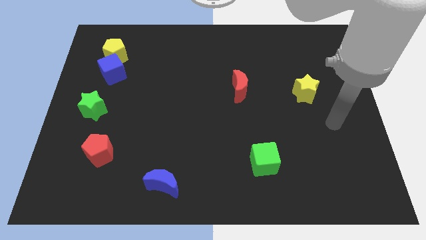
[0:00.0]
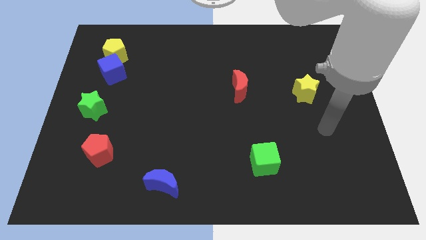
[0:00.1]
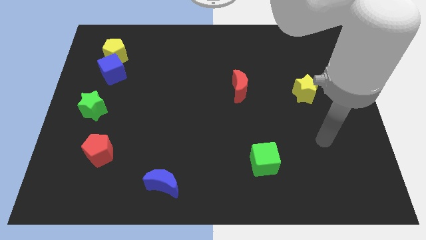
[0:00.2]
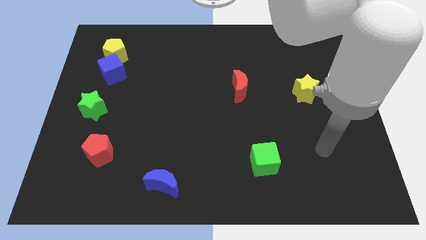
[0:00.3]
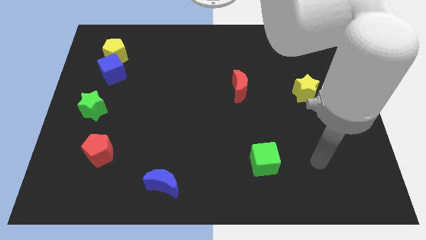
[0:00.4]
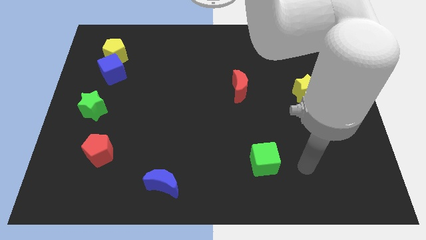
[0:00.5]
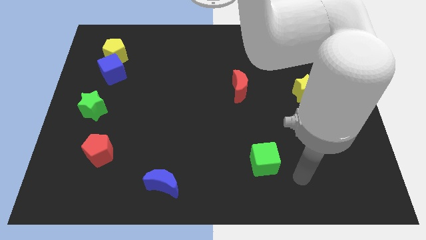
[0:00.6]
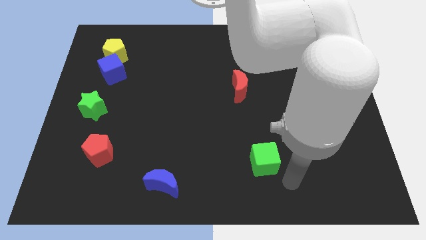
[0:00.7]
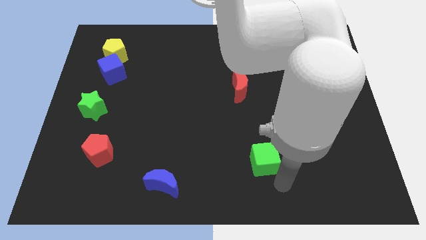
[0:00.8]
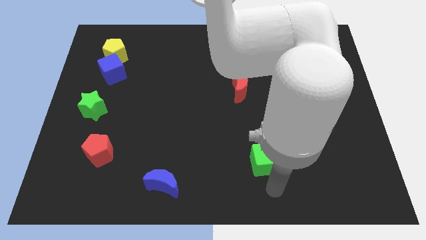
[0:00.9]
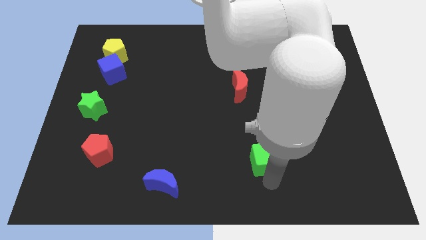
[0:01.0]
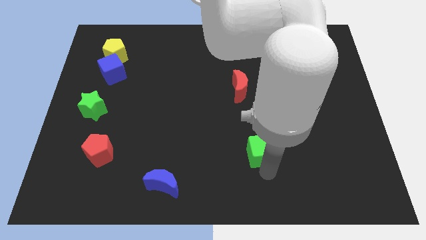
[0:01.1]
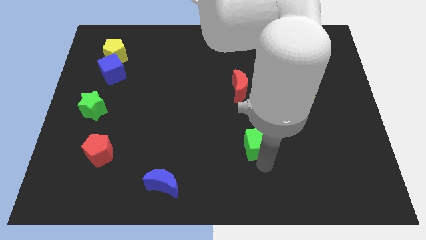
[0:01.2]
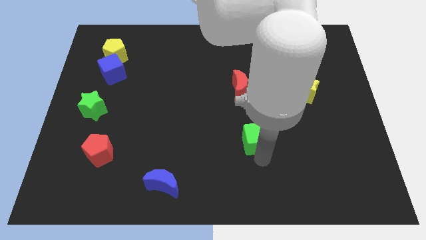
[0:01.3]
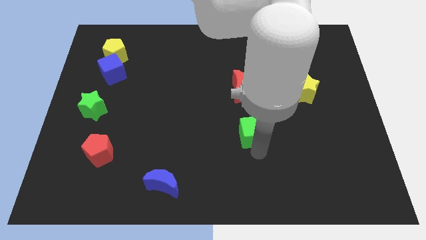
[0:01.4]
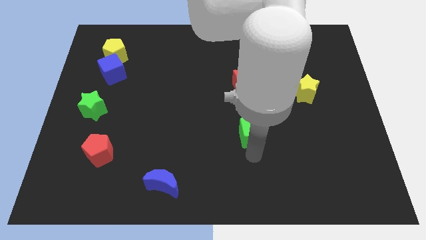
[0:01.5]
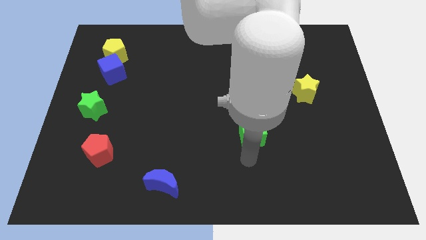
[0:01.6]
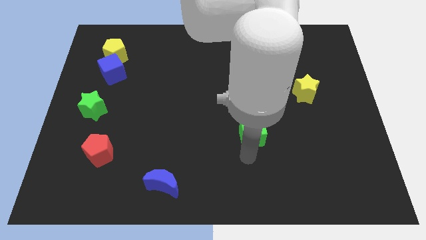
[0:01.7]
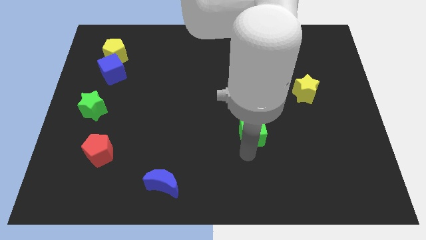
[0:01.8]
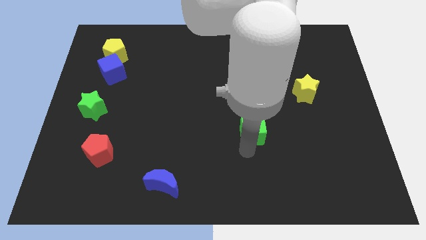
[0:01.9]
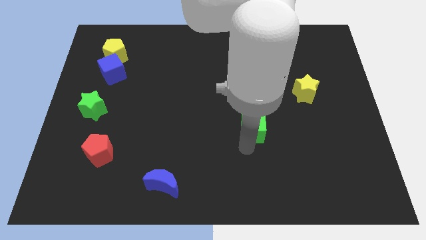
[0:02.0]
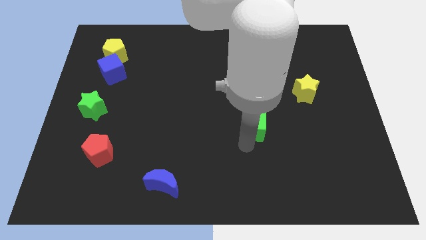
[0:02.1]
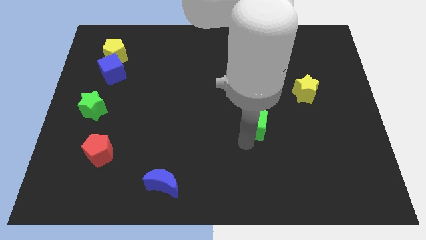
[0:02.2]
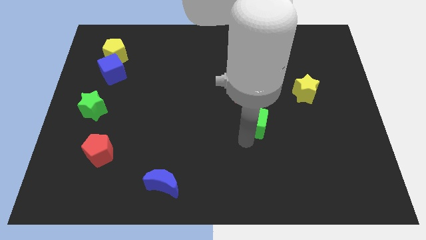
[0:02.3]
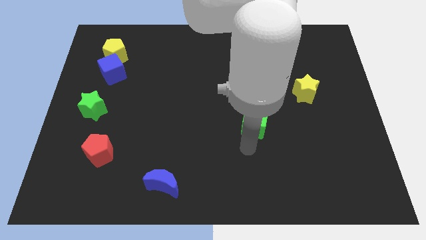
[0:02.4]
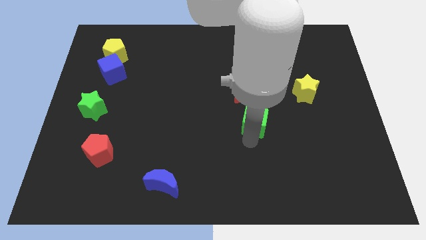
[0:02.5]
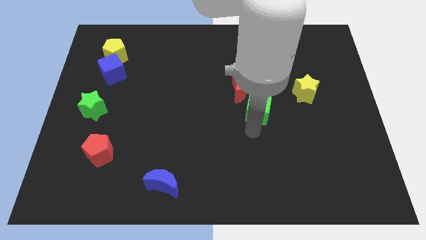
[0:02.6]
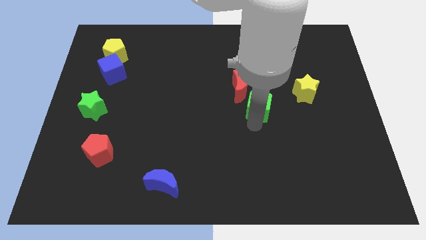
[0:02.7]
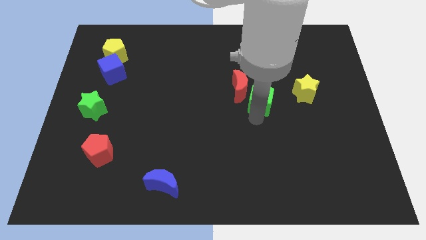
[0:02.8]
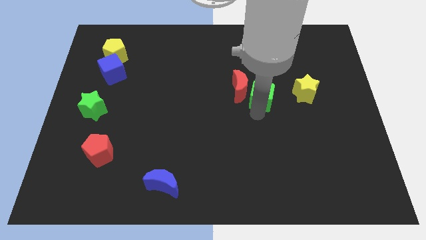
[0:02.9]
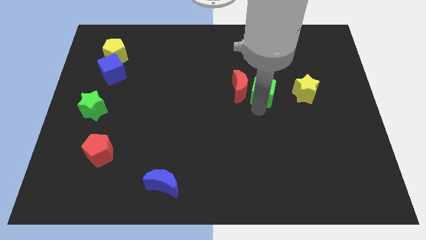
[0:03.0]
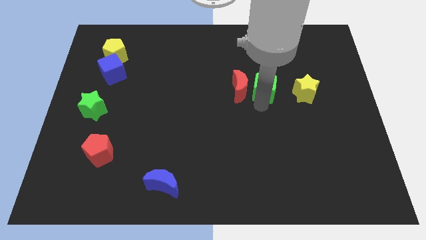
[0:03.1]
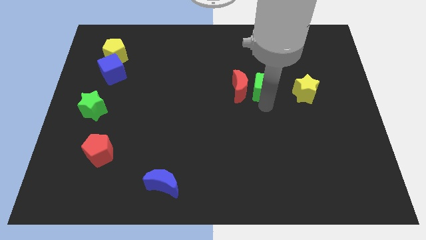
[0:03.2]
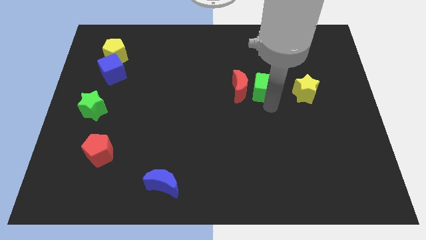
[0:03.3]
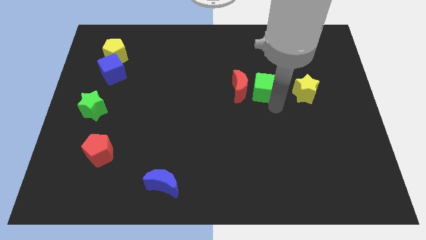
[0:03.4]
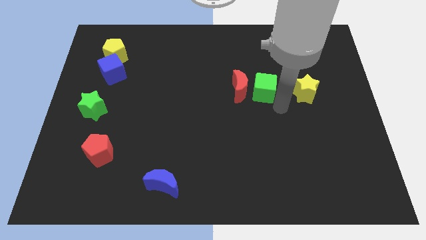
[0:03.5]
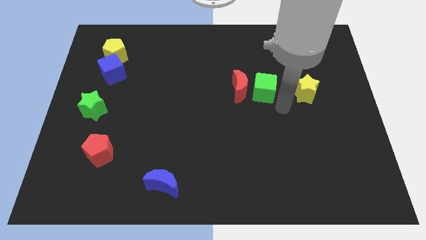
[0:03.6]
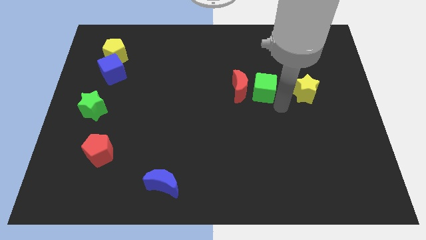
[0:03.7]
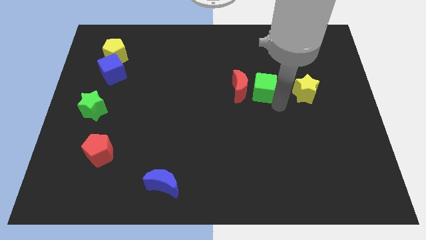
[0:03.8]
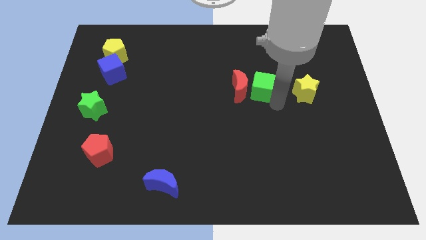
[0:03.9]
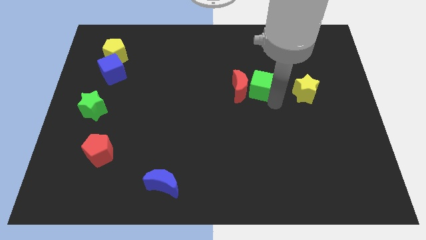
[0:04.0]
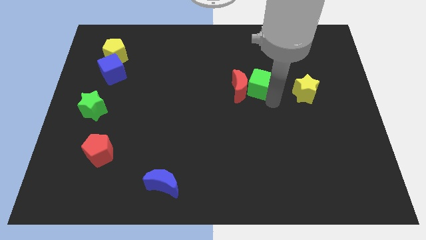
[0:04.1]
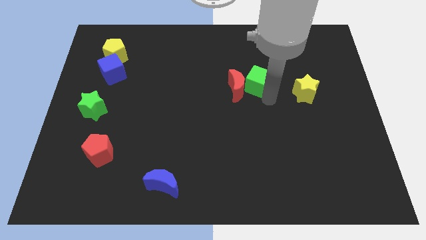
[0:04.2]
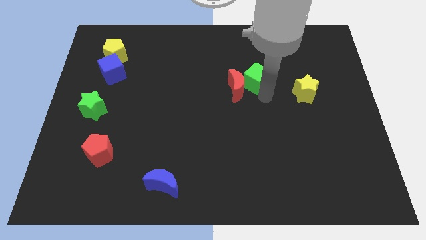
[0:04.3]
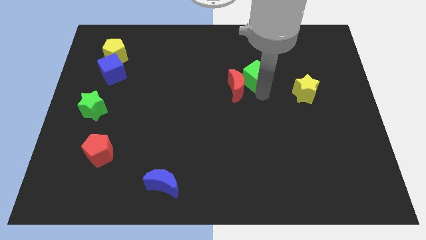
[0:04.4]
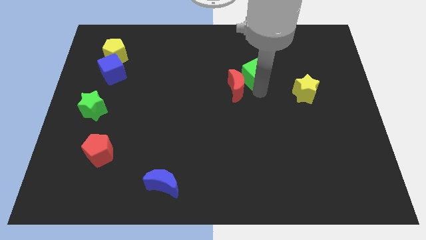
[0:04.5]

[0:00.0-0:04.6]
push the green cube above the red moon

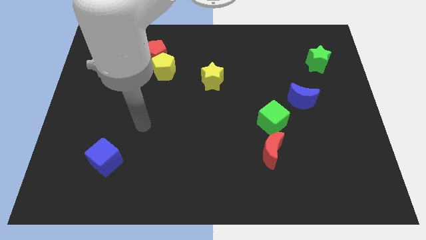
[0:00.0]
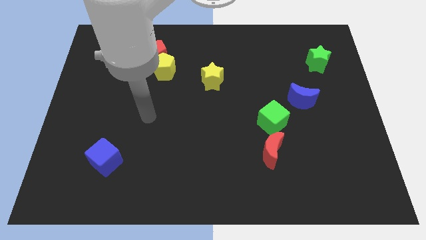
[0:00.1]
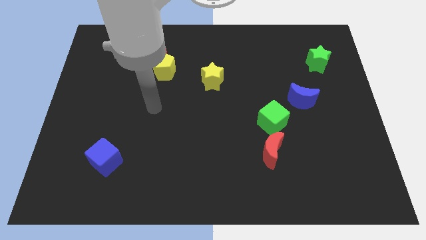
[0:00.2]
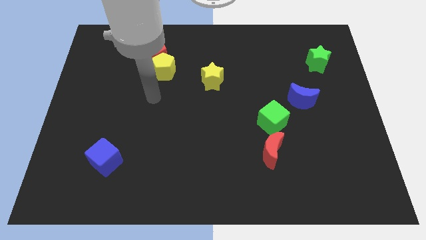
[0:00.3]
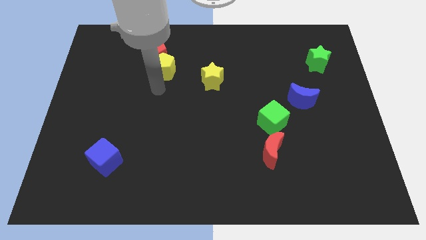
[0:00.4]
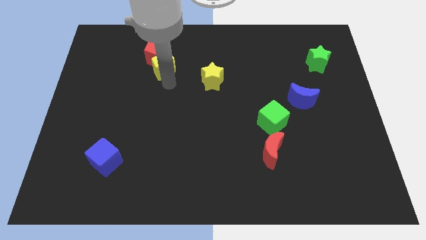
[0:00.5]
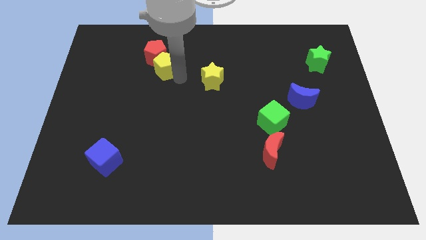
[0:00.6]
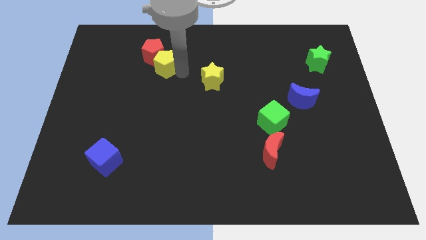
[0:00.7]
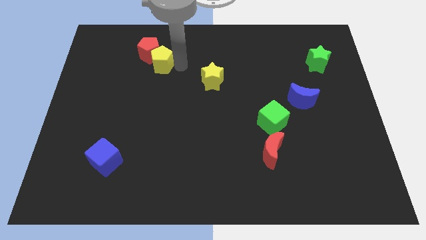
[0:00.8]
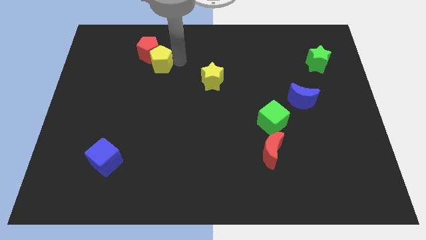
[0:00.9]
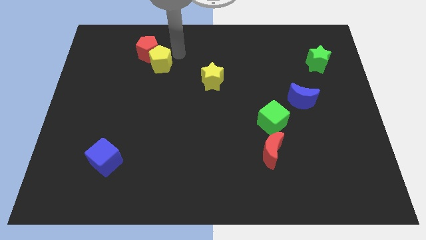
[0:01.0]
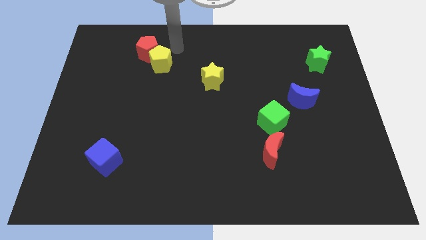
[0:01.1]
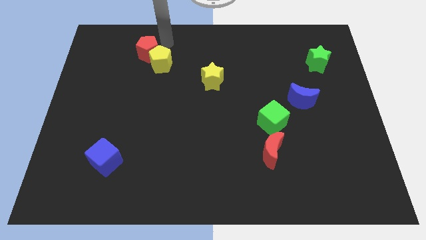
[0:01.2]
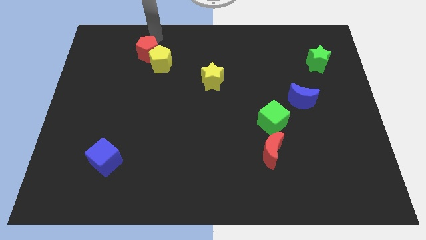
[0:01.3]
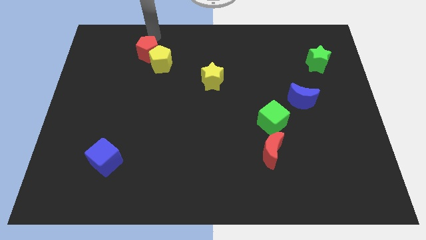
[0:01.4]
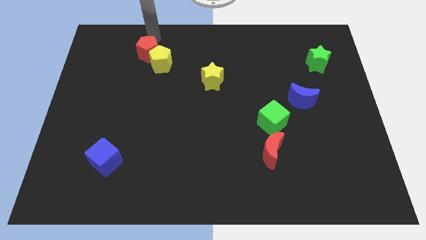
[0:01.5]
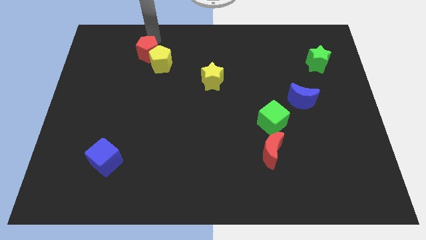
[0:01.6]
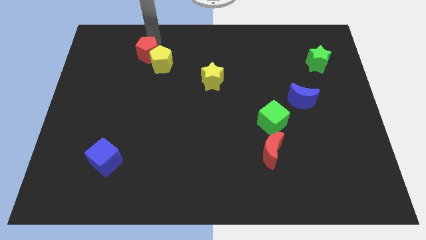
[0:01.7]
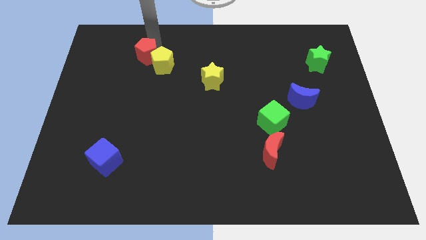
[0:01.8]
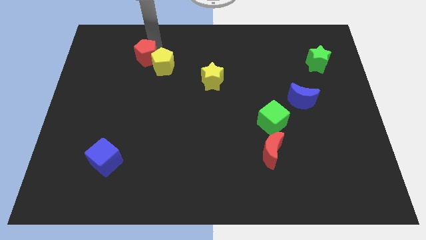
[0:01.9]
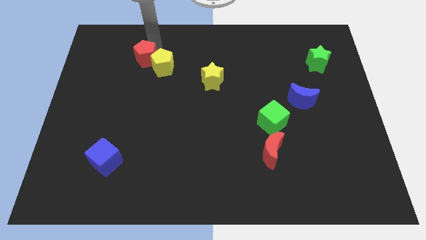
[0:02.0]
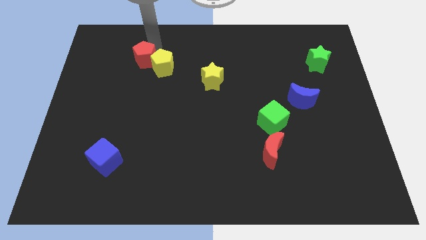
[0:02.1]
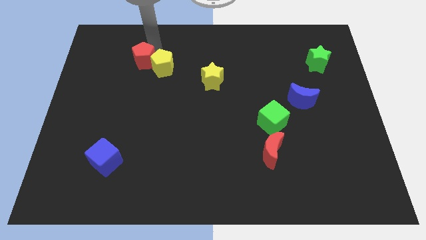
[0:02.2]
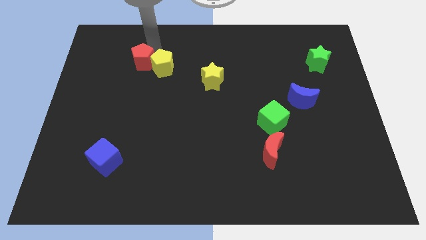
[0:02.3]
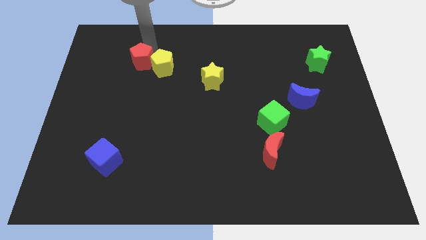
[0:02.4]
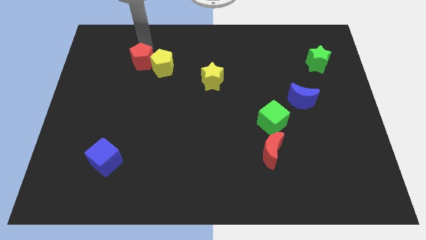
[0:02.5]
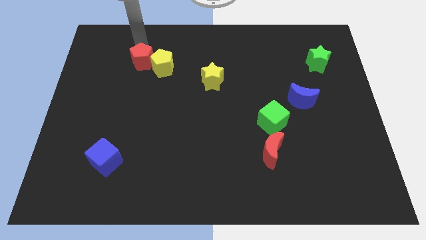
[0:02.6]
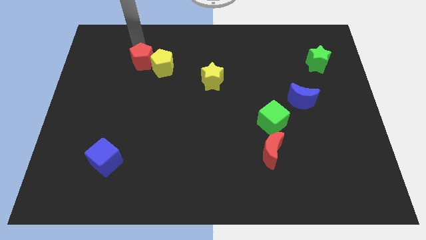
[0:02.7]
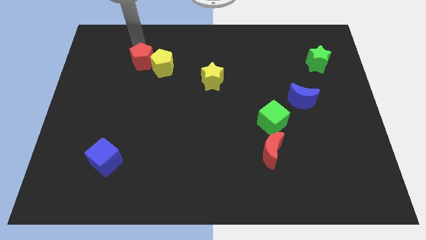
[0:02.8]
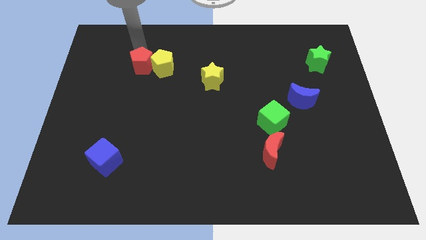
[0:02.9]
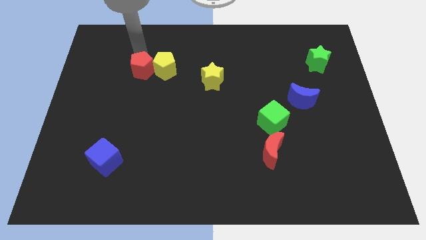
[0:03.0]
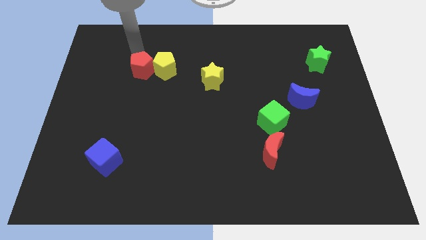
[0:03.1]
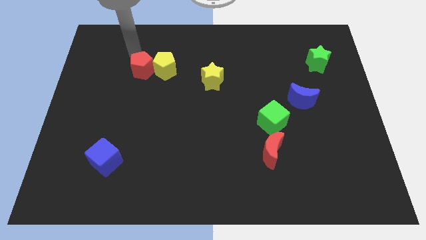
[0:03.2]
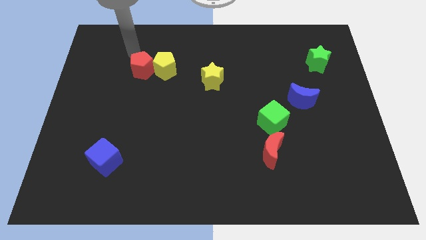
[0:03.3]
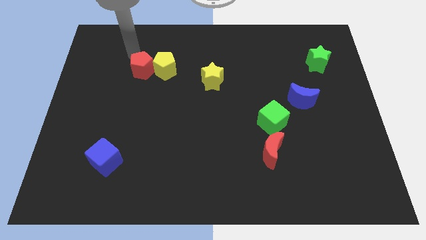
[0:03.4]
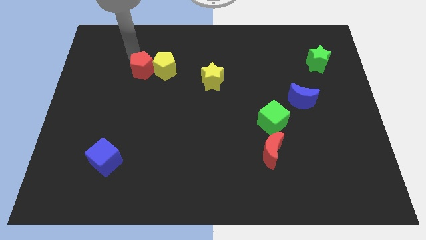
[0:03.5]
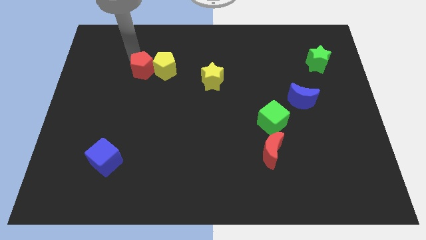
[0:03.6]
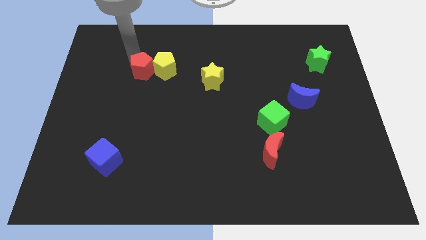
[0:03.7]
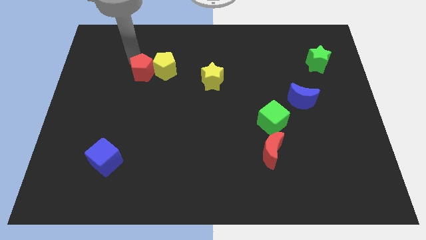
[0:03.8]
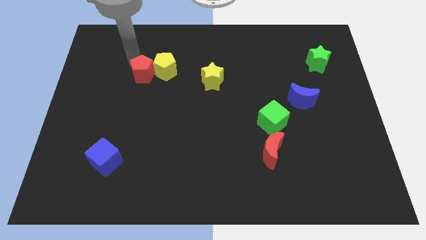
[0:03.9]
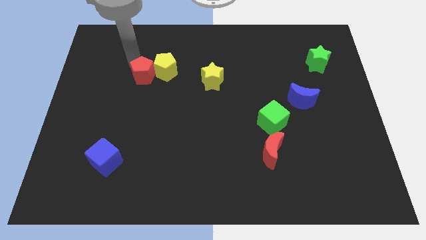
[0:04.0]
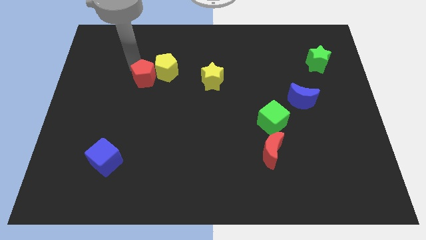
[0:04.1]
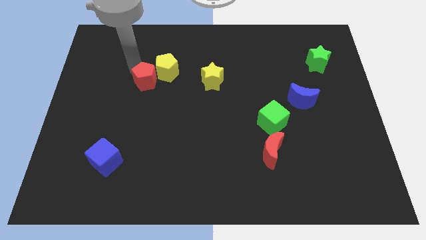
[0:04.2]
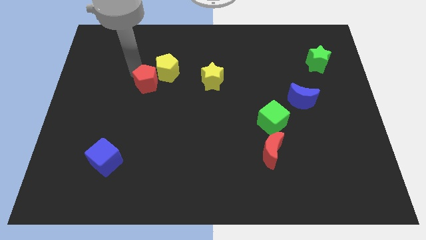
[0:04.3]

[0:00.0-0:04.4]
put the red pentagon to the bottom side of the yellow pentagon
